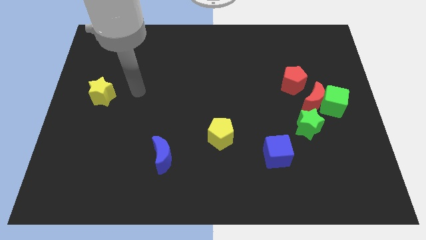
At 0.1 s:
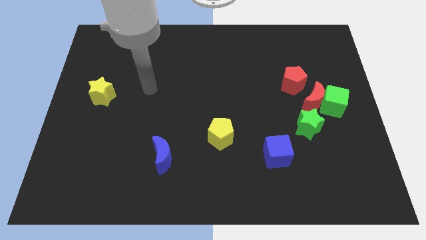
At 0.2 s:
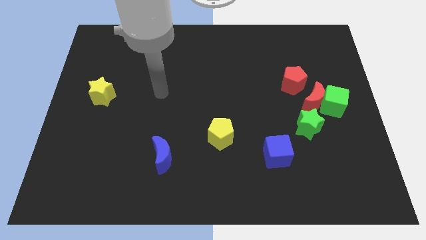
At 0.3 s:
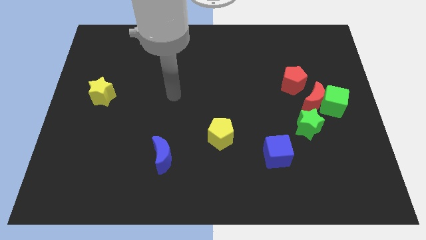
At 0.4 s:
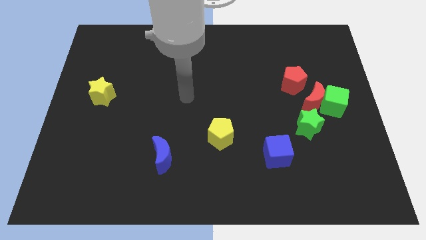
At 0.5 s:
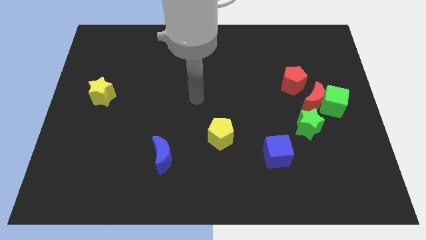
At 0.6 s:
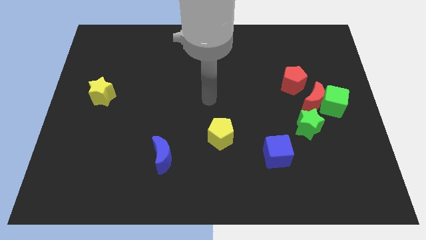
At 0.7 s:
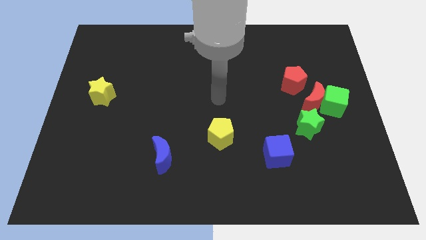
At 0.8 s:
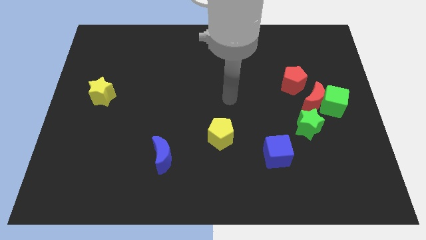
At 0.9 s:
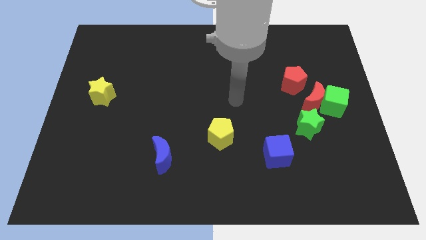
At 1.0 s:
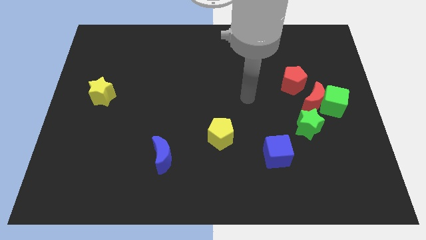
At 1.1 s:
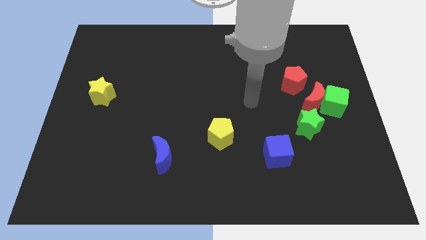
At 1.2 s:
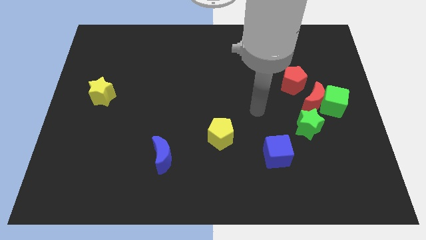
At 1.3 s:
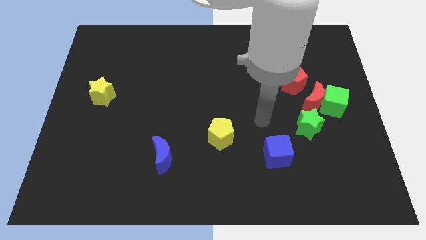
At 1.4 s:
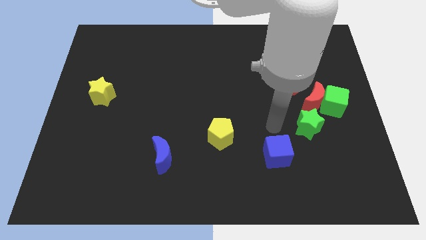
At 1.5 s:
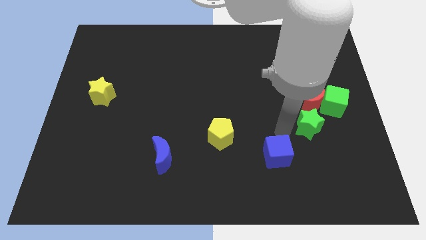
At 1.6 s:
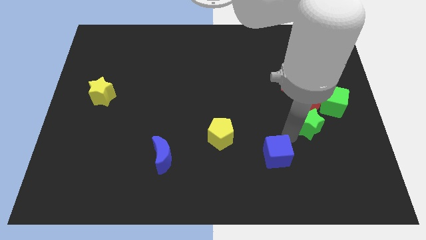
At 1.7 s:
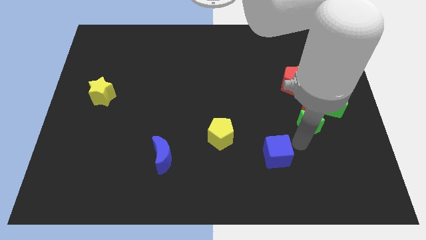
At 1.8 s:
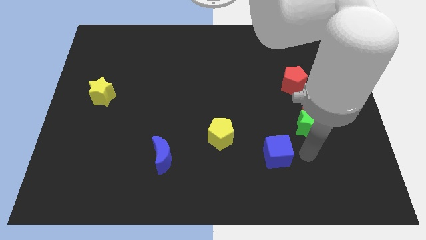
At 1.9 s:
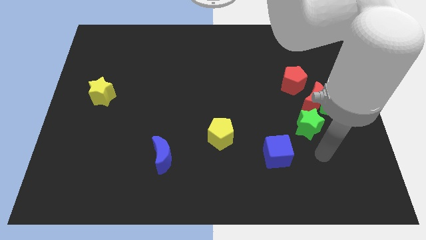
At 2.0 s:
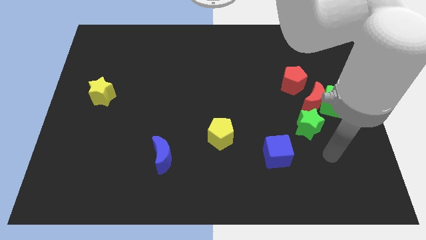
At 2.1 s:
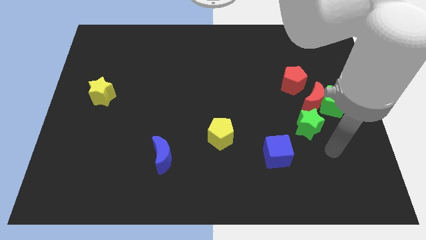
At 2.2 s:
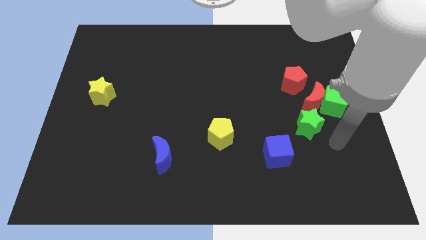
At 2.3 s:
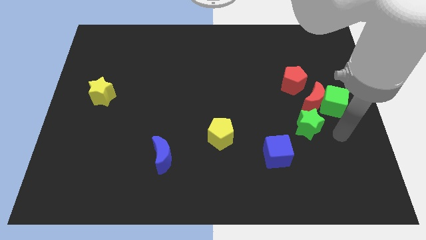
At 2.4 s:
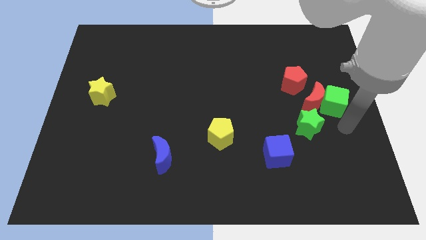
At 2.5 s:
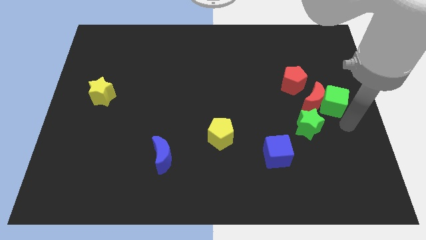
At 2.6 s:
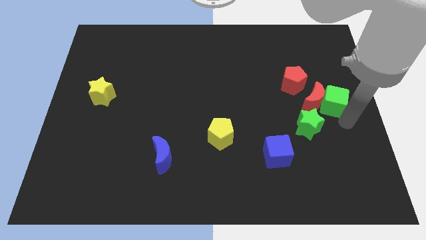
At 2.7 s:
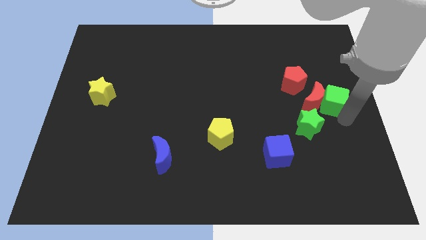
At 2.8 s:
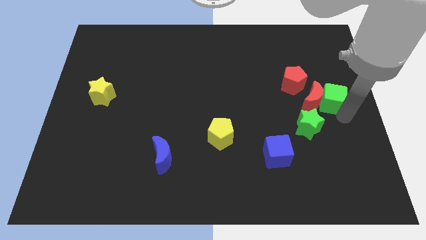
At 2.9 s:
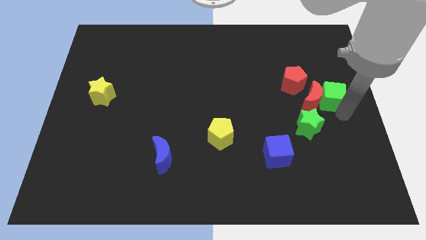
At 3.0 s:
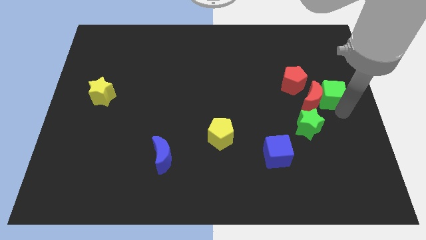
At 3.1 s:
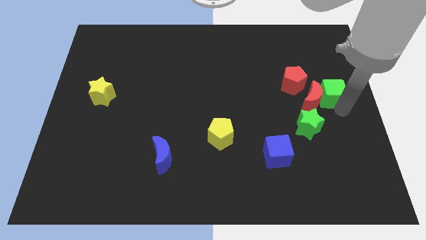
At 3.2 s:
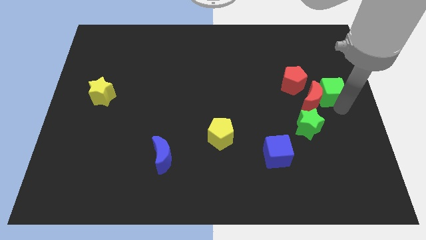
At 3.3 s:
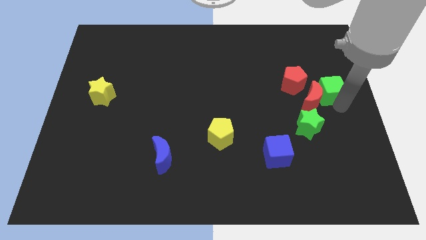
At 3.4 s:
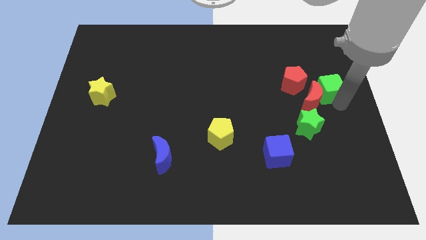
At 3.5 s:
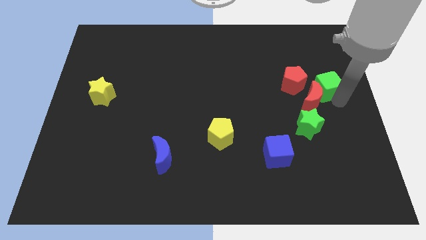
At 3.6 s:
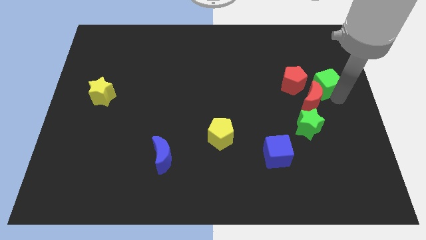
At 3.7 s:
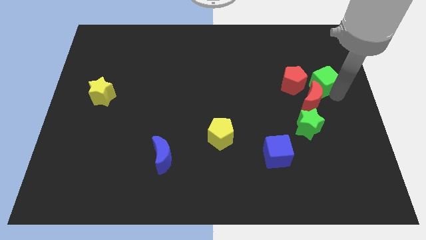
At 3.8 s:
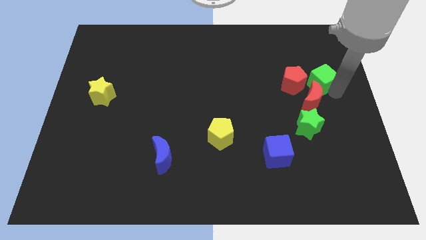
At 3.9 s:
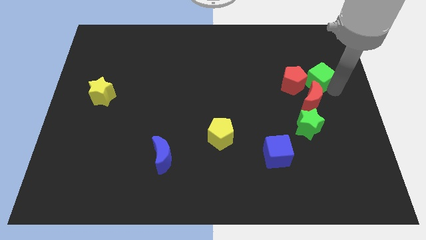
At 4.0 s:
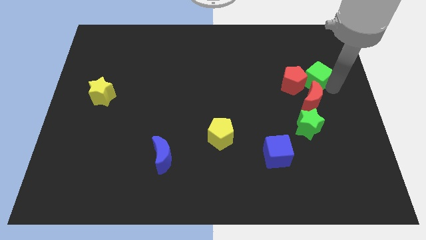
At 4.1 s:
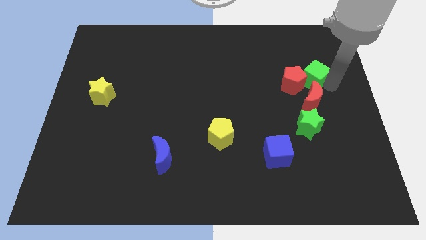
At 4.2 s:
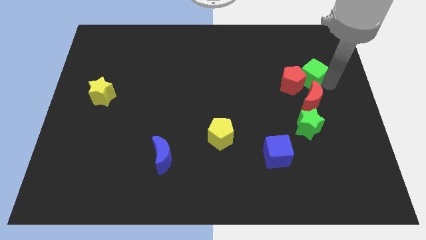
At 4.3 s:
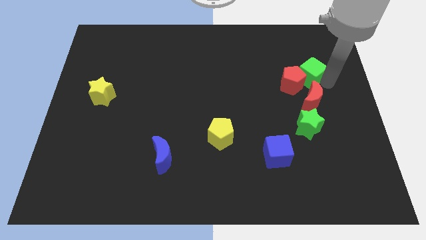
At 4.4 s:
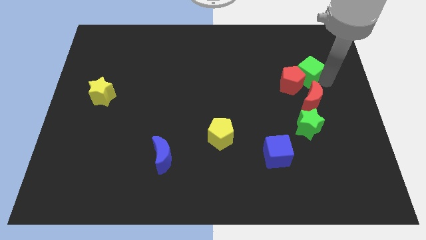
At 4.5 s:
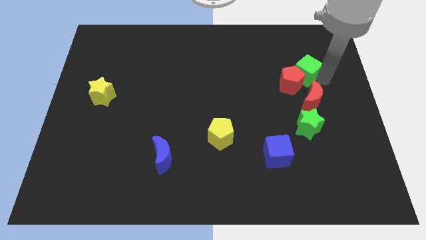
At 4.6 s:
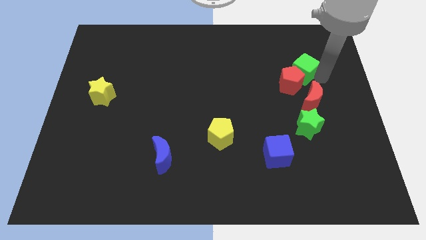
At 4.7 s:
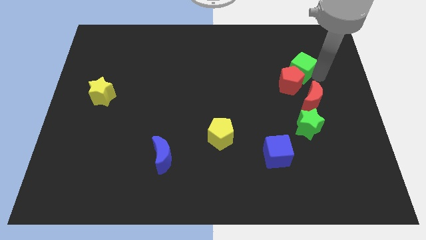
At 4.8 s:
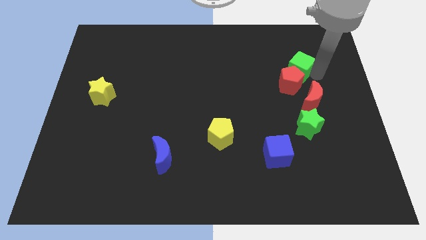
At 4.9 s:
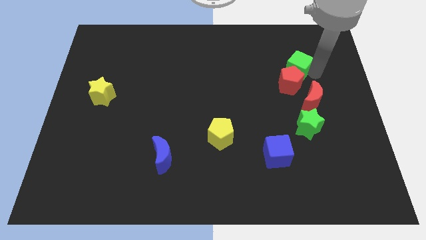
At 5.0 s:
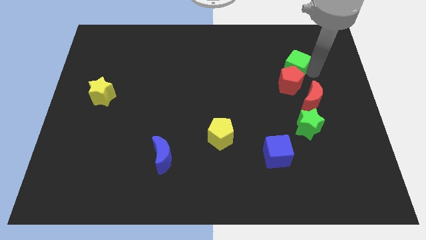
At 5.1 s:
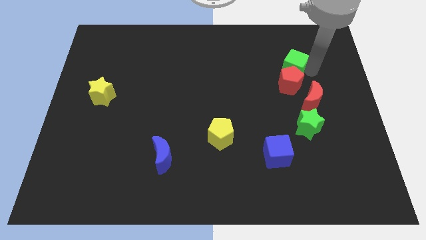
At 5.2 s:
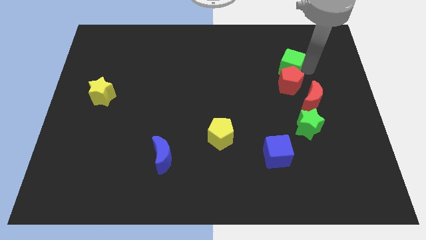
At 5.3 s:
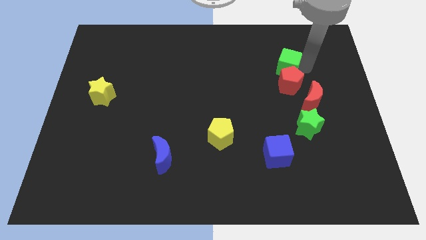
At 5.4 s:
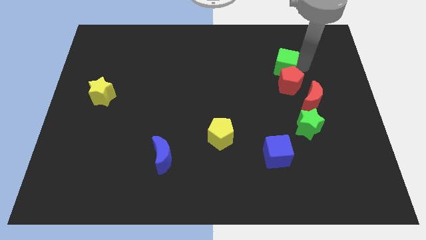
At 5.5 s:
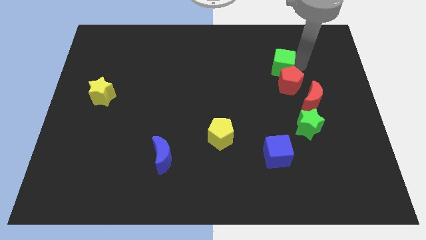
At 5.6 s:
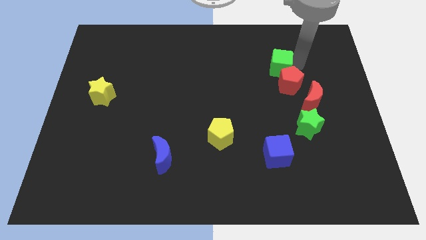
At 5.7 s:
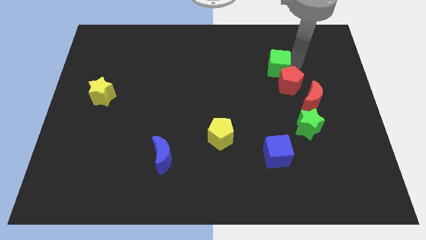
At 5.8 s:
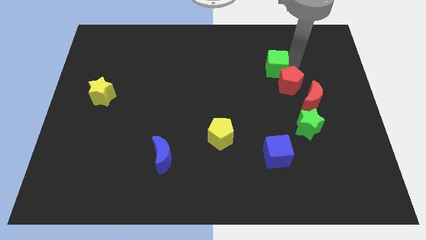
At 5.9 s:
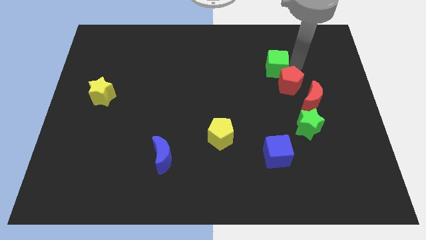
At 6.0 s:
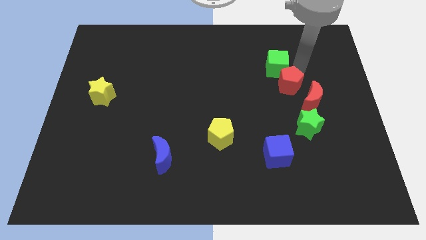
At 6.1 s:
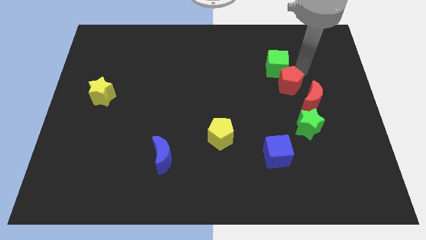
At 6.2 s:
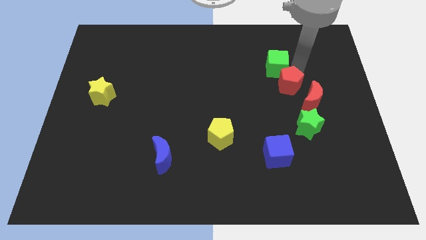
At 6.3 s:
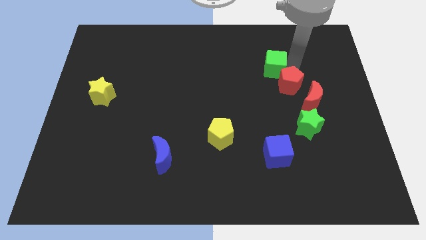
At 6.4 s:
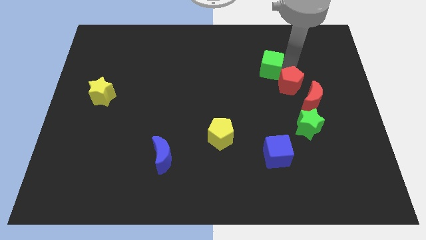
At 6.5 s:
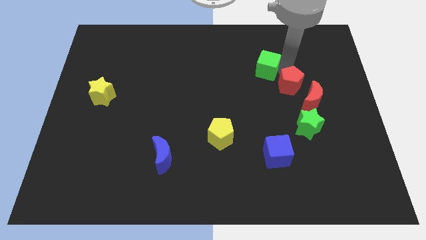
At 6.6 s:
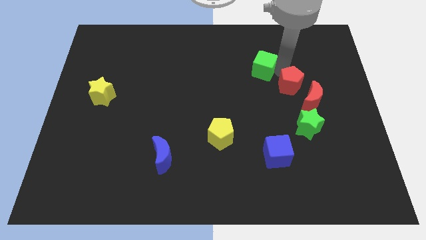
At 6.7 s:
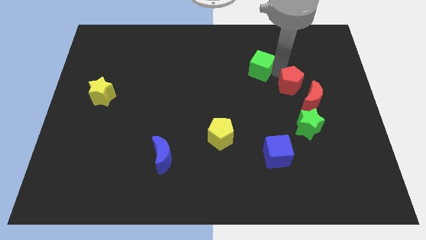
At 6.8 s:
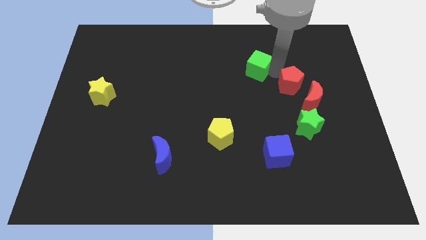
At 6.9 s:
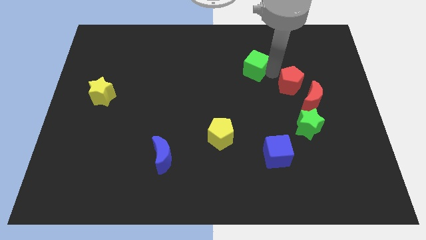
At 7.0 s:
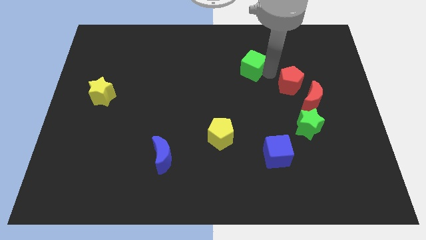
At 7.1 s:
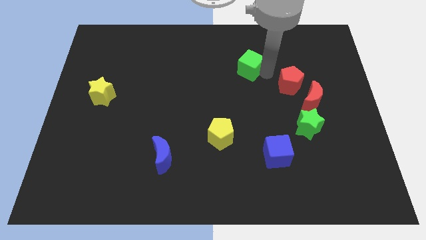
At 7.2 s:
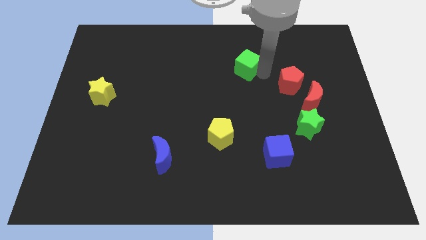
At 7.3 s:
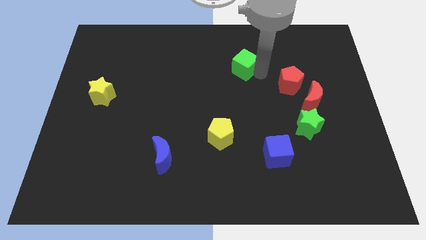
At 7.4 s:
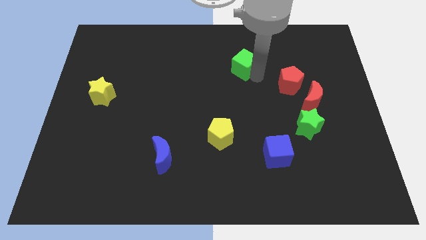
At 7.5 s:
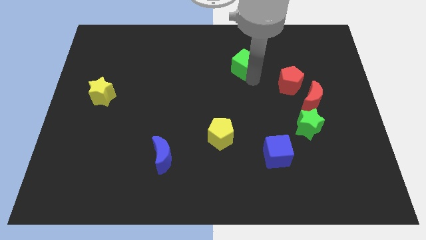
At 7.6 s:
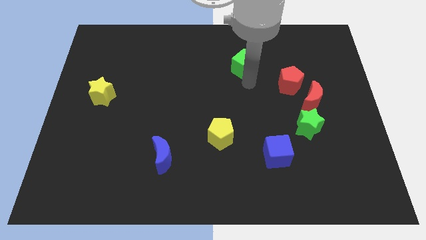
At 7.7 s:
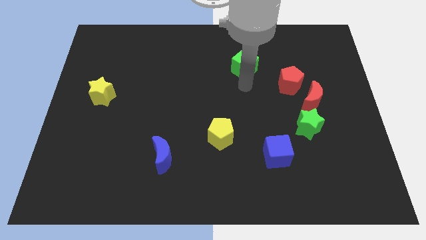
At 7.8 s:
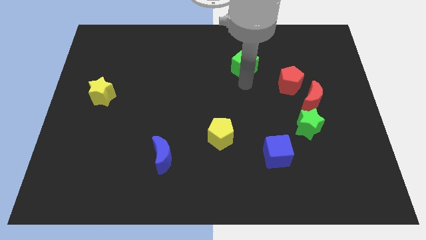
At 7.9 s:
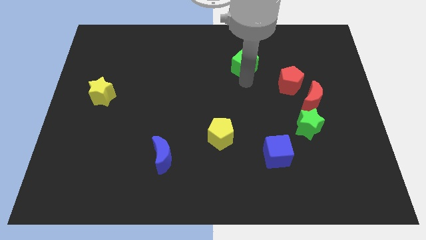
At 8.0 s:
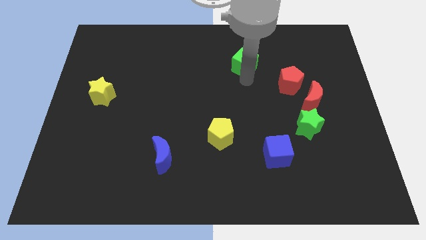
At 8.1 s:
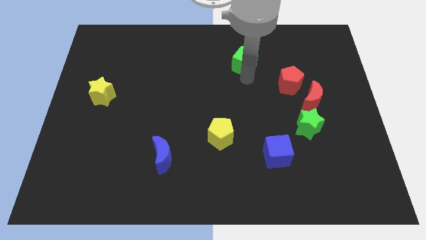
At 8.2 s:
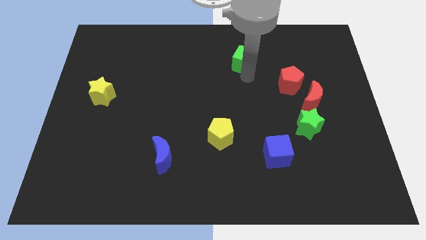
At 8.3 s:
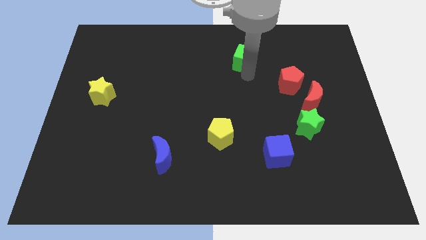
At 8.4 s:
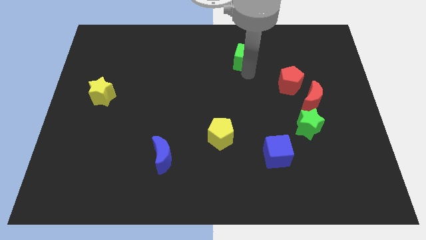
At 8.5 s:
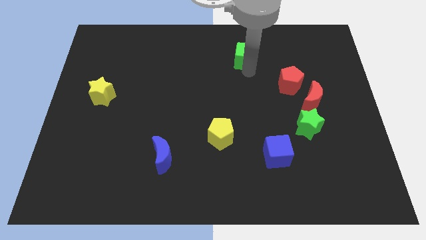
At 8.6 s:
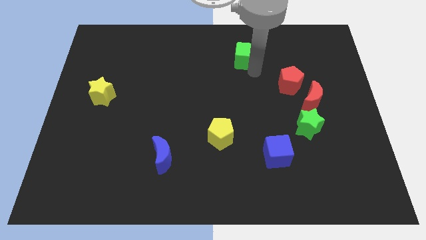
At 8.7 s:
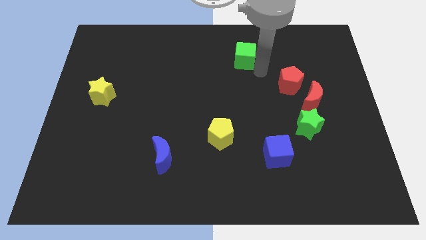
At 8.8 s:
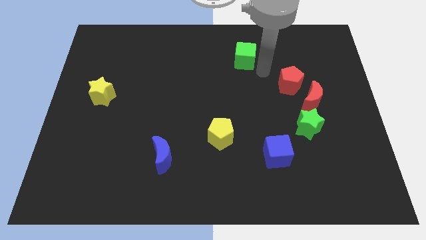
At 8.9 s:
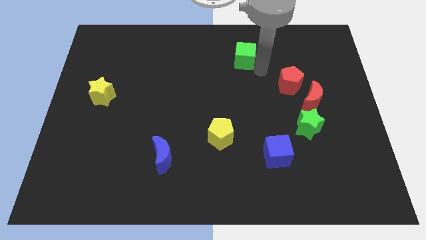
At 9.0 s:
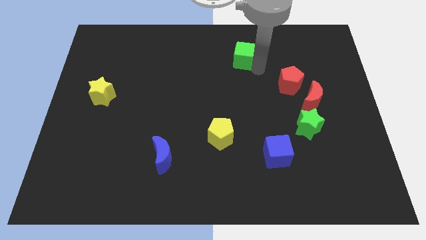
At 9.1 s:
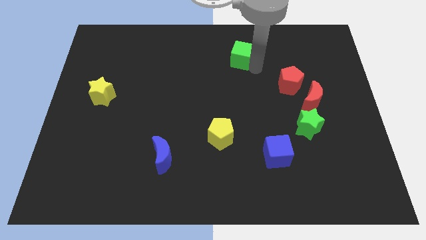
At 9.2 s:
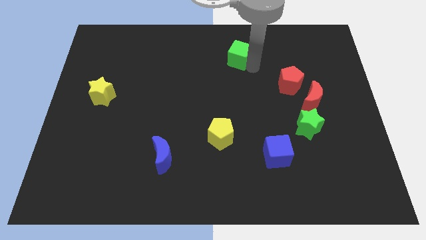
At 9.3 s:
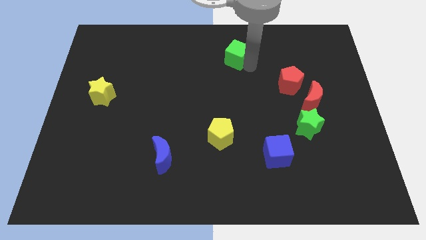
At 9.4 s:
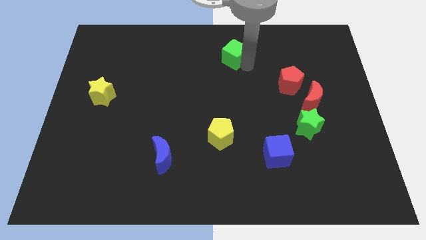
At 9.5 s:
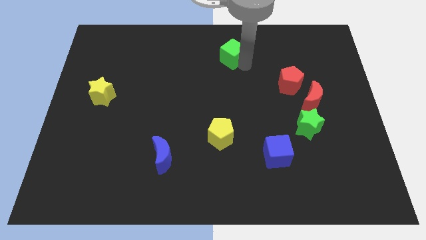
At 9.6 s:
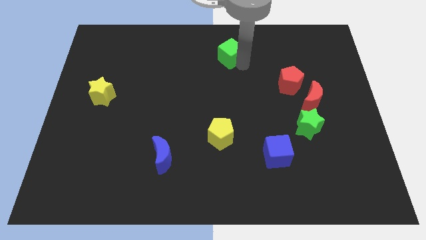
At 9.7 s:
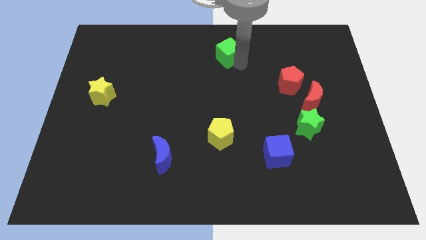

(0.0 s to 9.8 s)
slide the green cube to the top side
